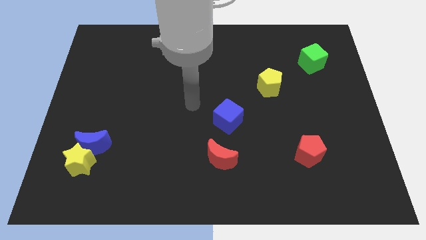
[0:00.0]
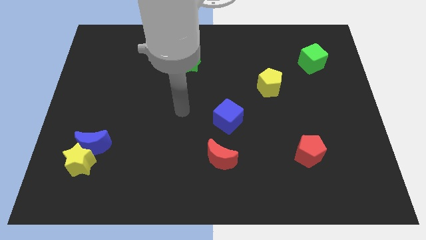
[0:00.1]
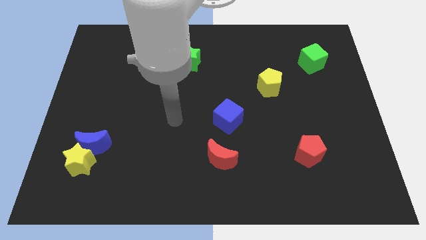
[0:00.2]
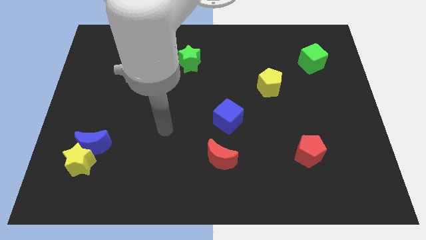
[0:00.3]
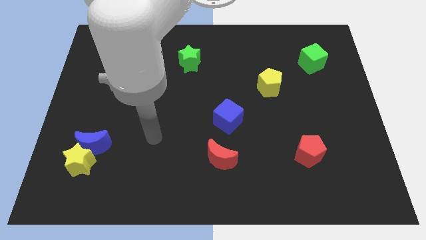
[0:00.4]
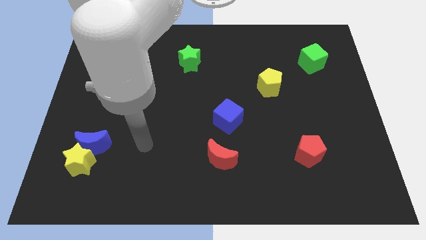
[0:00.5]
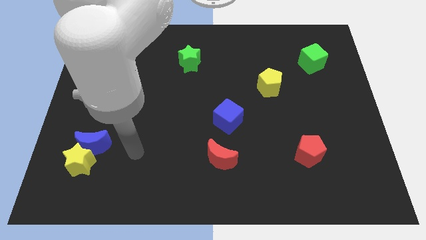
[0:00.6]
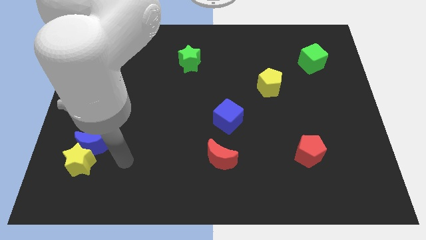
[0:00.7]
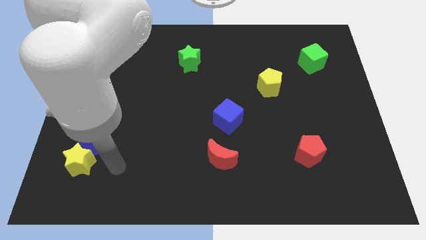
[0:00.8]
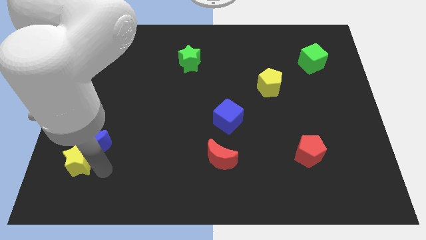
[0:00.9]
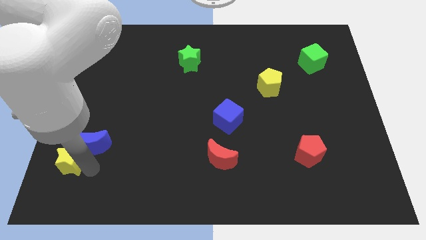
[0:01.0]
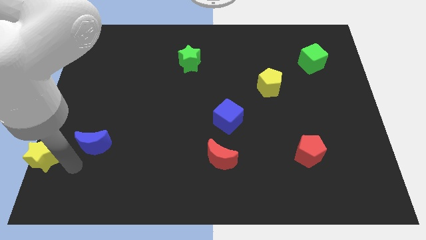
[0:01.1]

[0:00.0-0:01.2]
pull the blue moon apart from the yellow star

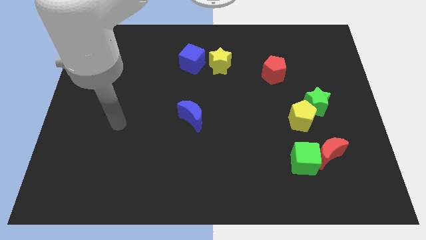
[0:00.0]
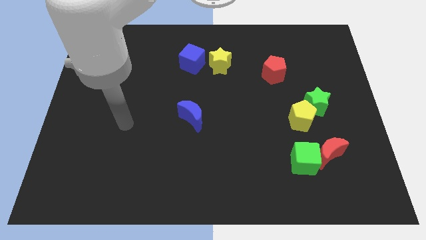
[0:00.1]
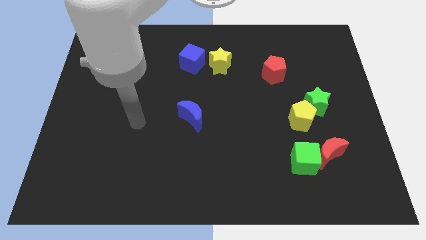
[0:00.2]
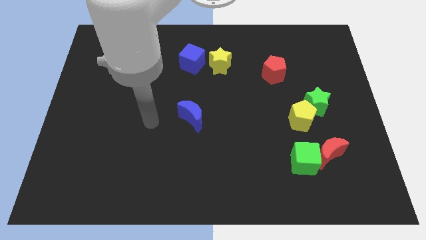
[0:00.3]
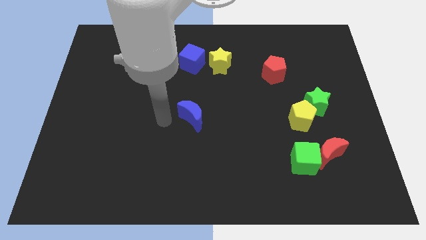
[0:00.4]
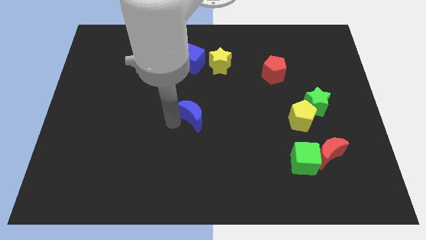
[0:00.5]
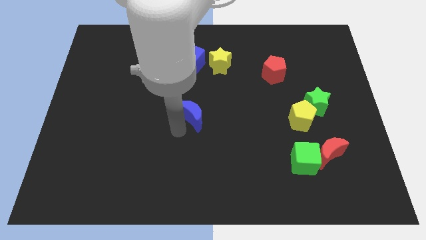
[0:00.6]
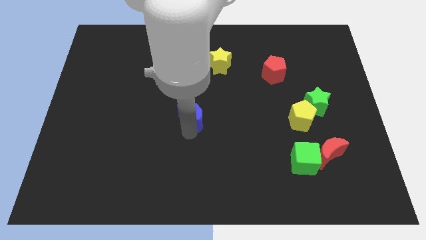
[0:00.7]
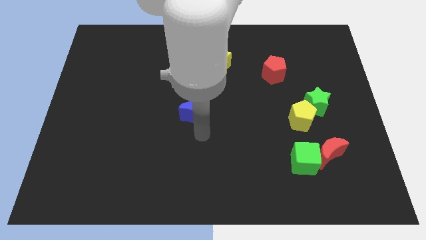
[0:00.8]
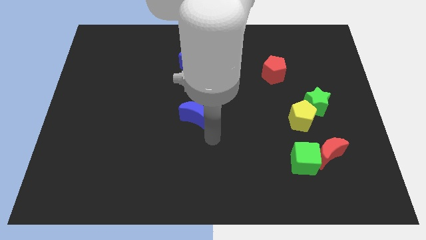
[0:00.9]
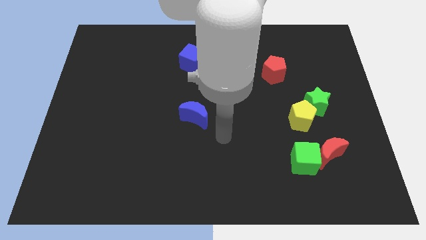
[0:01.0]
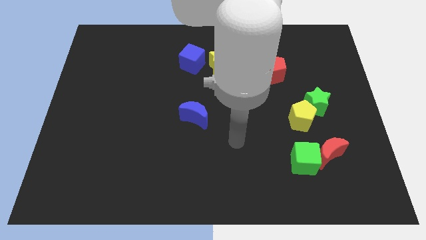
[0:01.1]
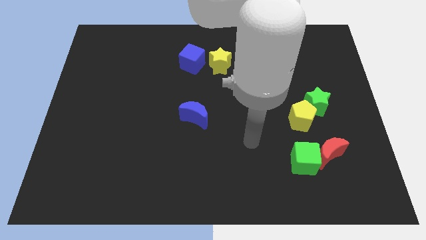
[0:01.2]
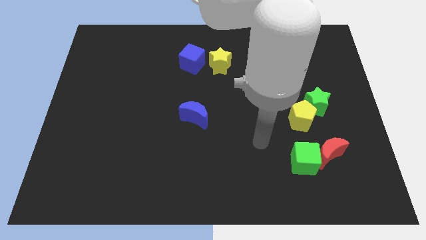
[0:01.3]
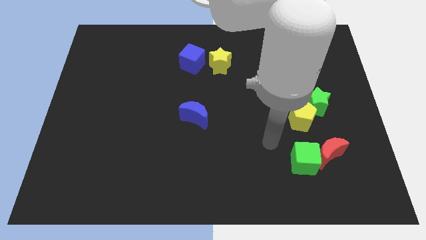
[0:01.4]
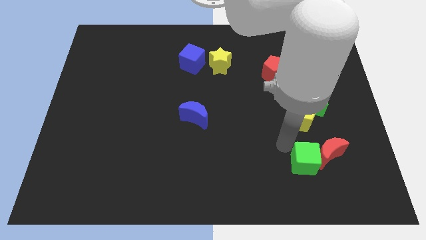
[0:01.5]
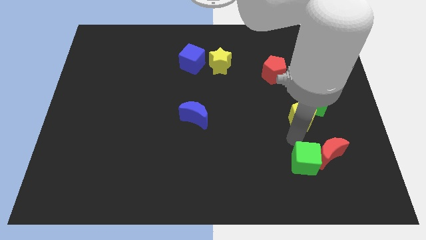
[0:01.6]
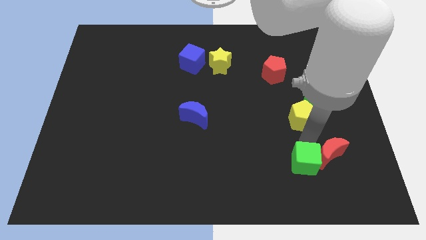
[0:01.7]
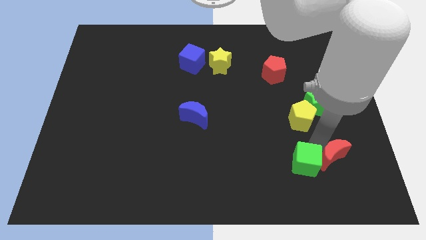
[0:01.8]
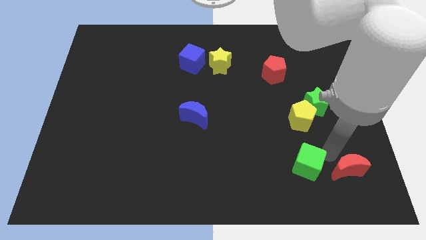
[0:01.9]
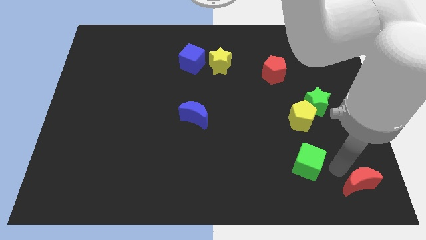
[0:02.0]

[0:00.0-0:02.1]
pull the green cube apart from the red moon

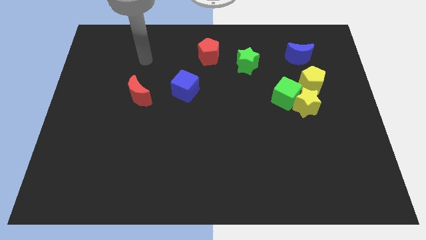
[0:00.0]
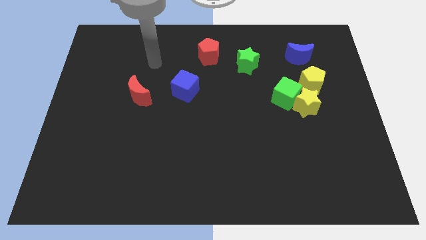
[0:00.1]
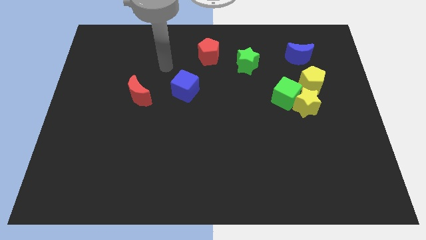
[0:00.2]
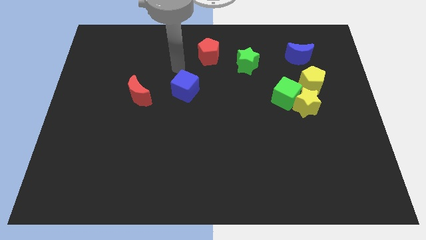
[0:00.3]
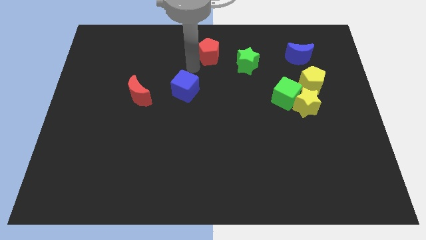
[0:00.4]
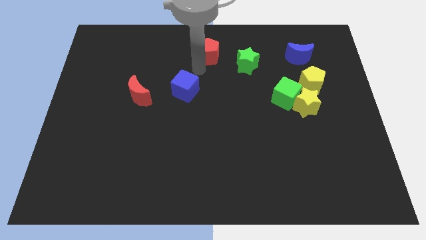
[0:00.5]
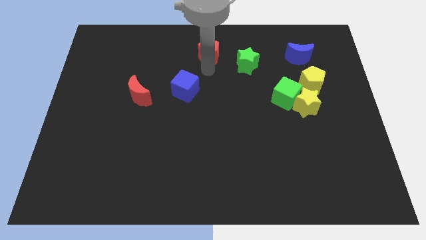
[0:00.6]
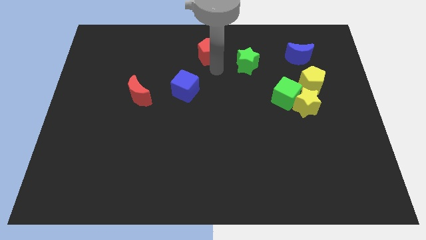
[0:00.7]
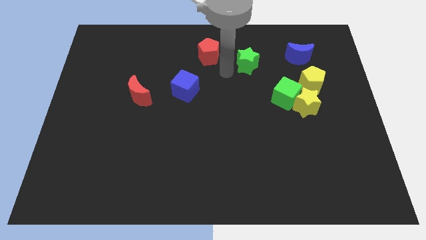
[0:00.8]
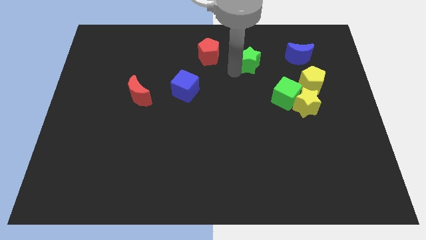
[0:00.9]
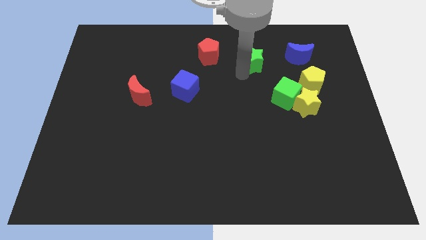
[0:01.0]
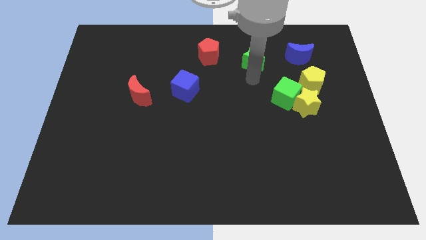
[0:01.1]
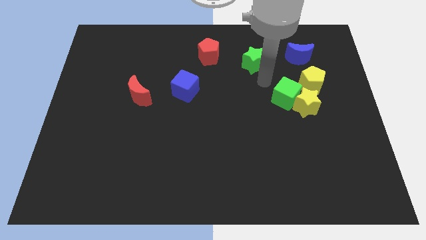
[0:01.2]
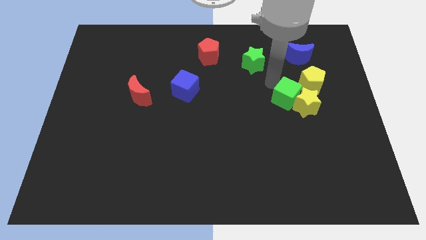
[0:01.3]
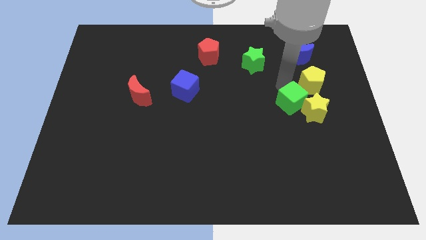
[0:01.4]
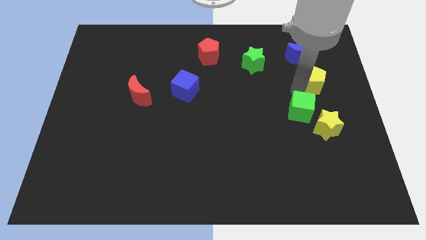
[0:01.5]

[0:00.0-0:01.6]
separate the yellow star from the green cube and yellow pentagon

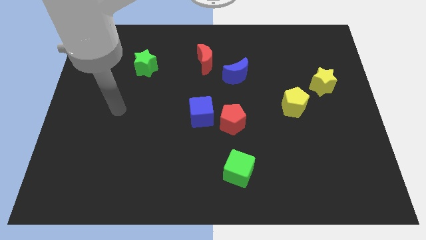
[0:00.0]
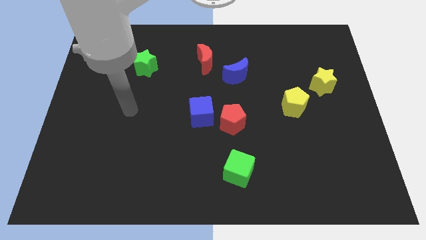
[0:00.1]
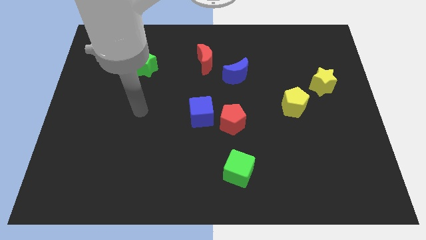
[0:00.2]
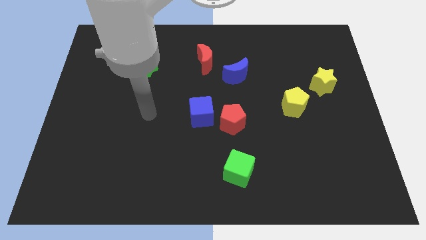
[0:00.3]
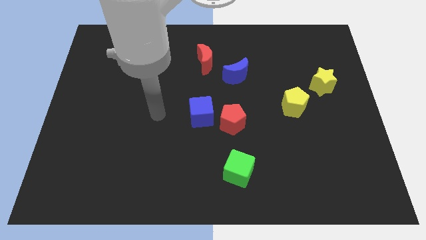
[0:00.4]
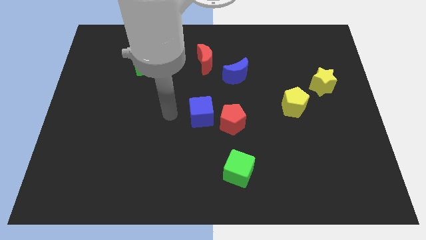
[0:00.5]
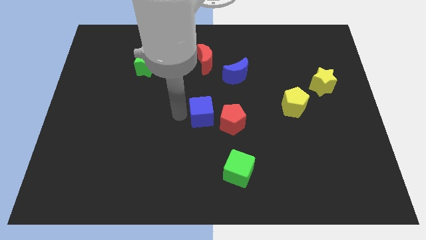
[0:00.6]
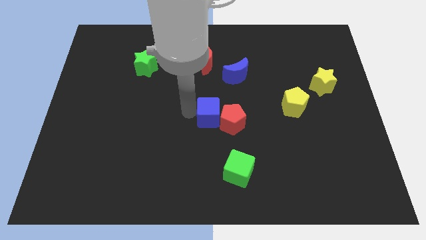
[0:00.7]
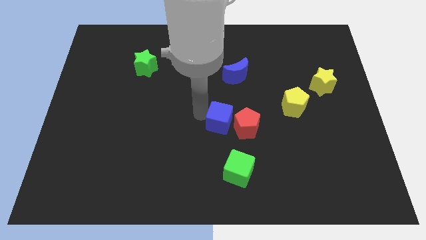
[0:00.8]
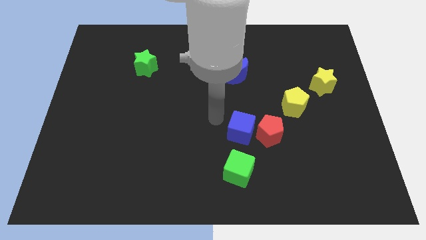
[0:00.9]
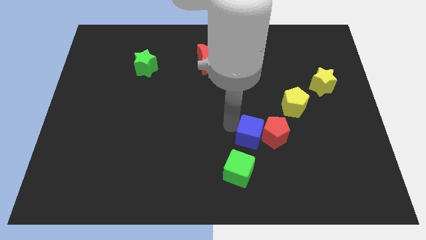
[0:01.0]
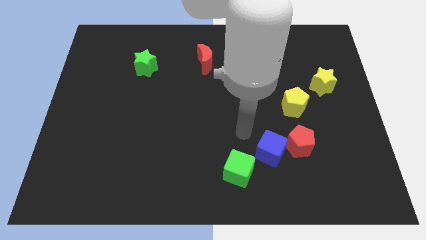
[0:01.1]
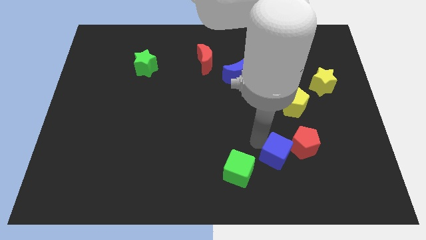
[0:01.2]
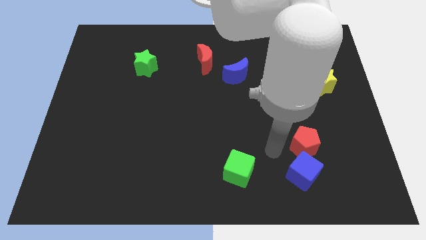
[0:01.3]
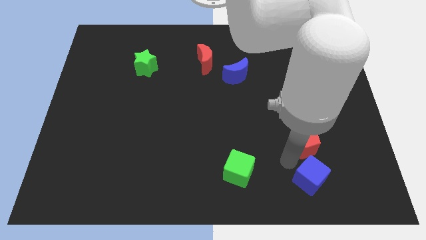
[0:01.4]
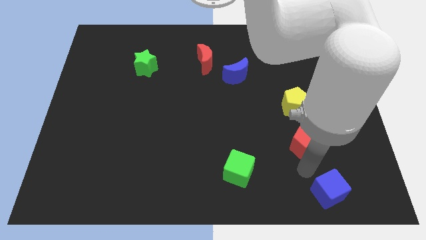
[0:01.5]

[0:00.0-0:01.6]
separate the red pentagon from the blue cube

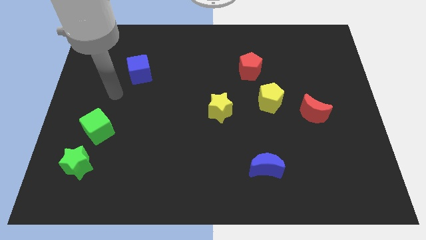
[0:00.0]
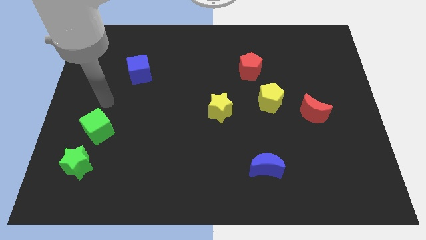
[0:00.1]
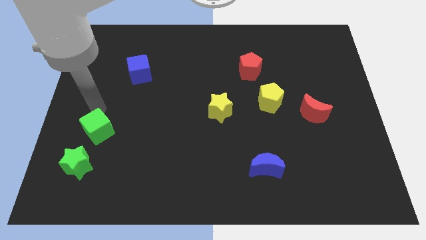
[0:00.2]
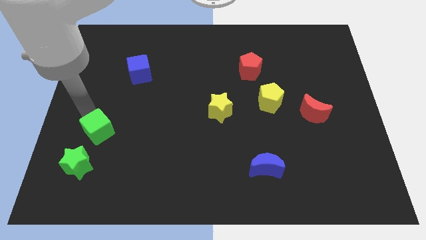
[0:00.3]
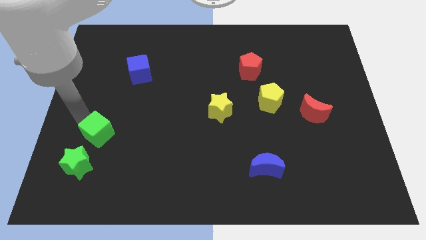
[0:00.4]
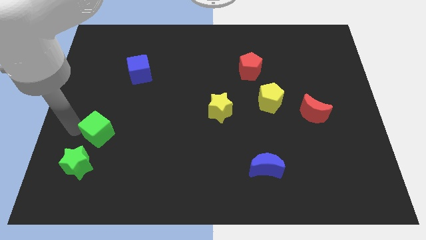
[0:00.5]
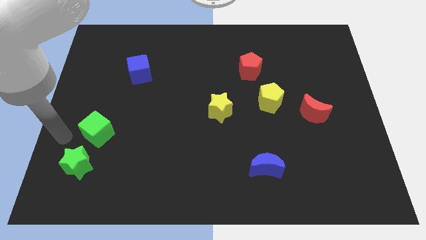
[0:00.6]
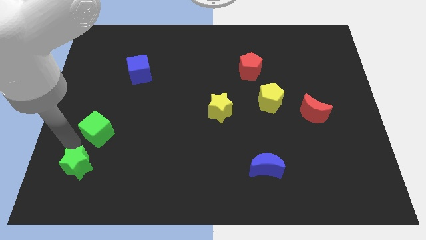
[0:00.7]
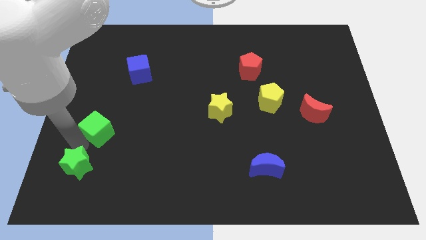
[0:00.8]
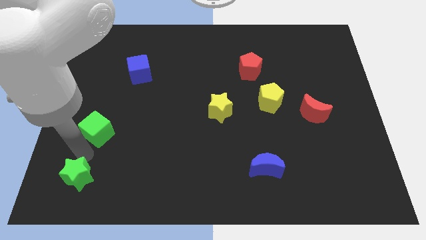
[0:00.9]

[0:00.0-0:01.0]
move the green cube away from the green star

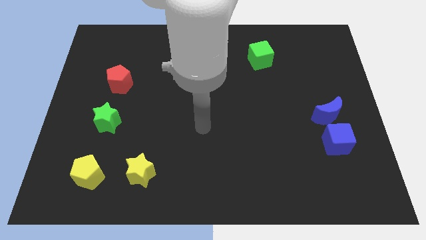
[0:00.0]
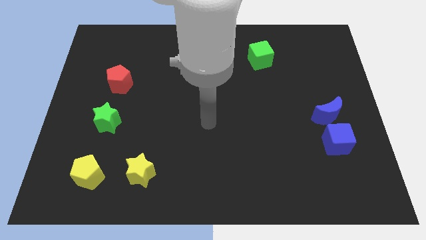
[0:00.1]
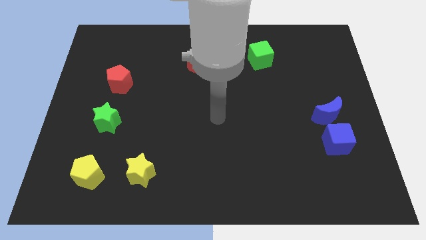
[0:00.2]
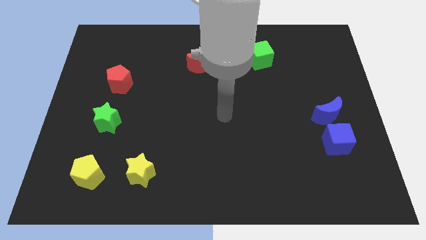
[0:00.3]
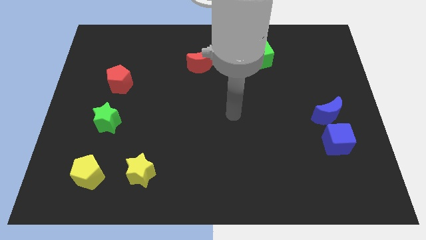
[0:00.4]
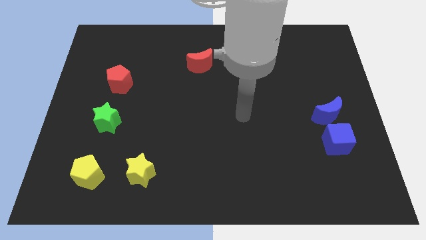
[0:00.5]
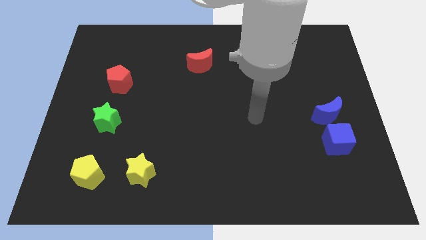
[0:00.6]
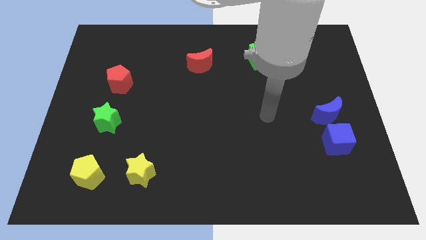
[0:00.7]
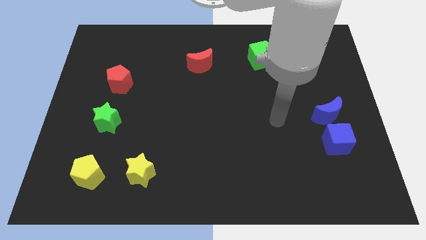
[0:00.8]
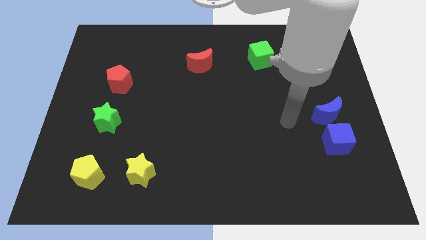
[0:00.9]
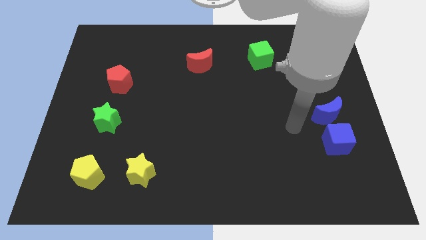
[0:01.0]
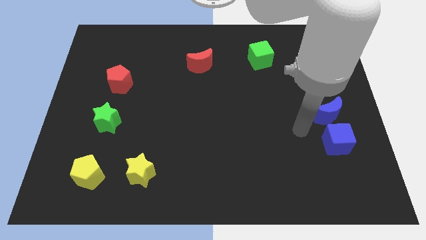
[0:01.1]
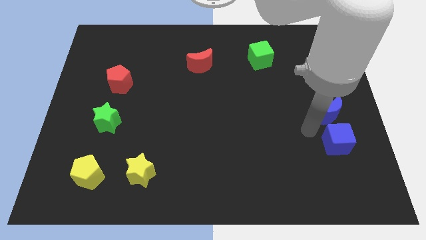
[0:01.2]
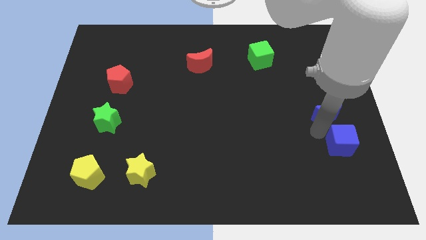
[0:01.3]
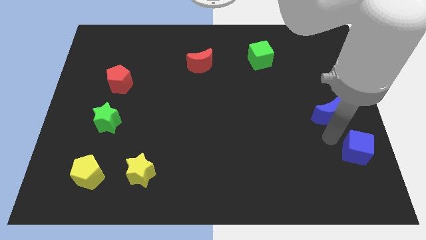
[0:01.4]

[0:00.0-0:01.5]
move the blue moon away from the blue cube
